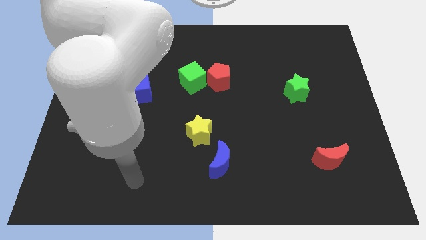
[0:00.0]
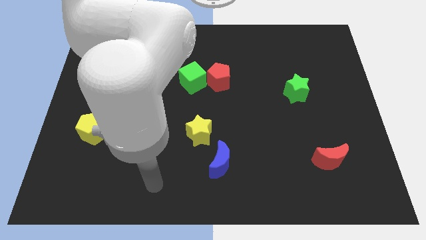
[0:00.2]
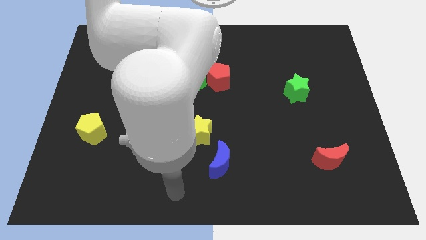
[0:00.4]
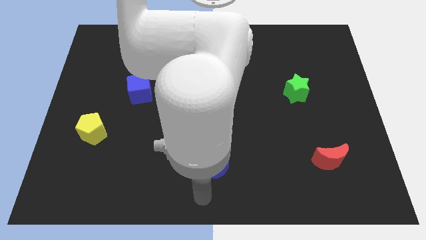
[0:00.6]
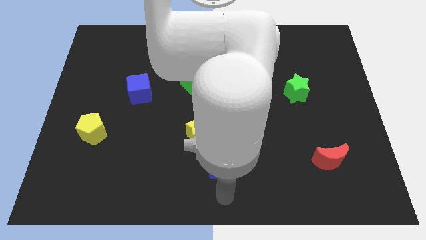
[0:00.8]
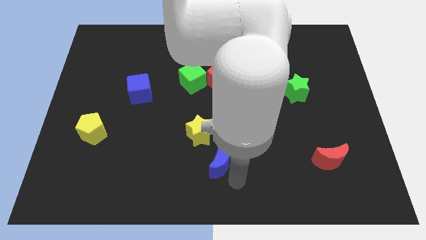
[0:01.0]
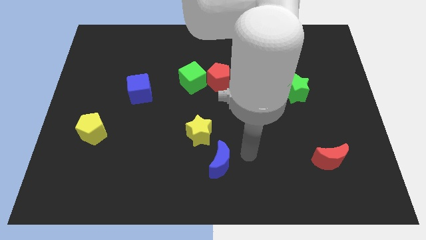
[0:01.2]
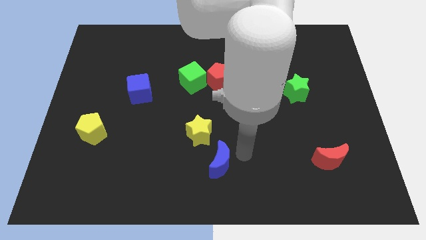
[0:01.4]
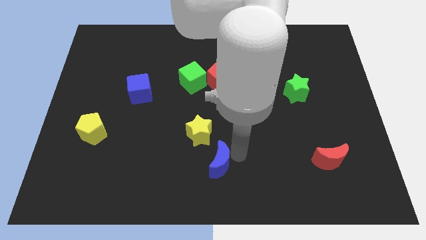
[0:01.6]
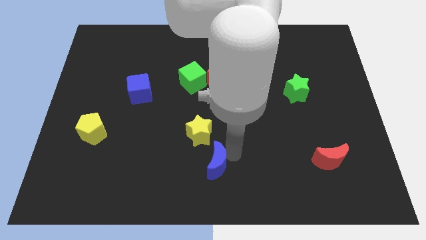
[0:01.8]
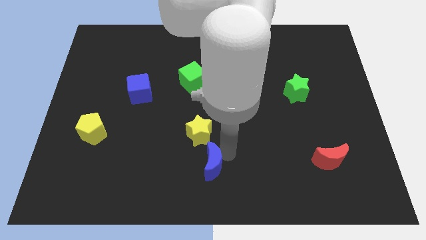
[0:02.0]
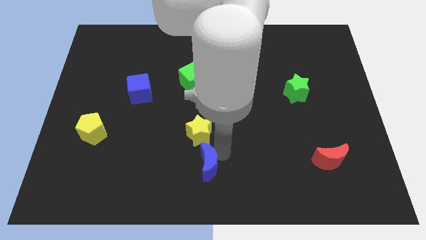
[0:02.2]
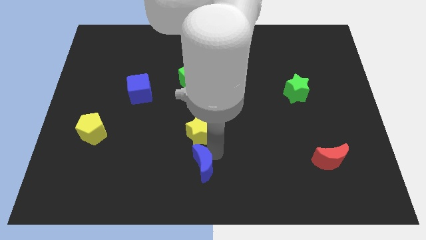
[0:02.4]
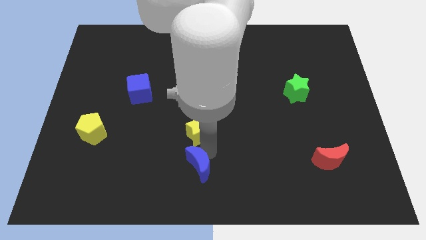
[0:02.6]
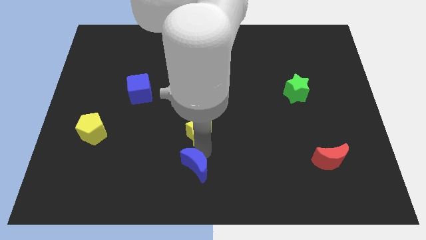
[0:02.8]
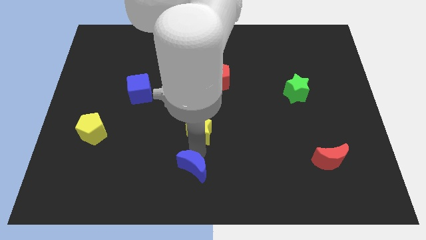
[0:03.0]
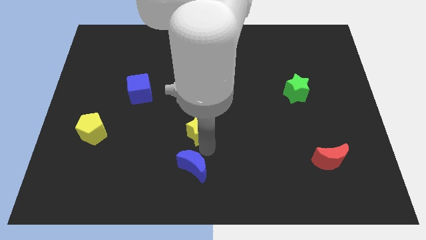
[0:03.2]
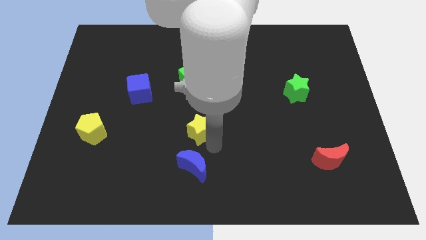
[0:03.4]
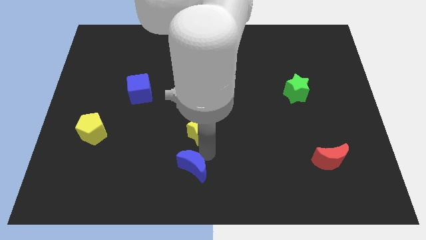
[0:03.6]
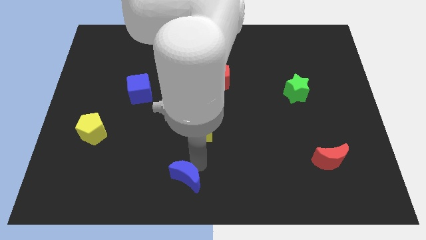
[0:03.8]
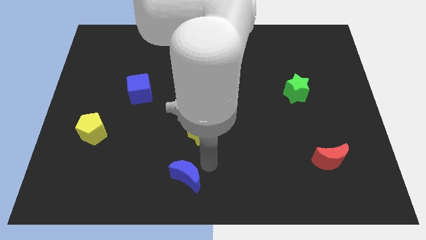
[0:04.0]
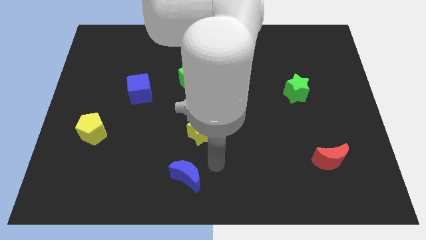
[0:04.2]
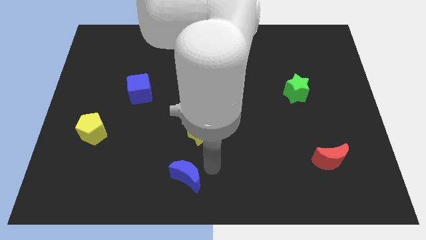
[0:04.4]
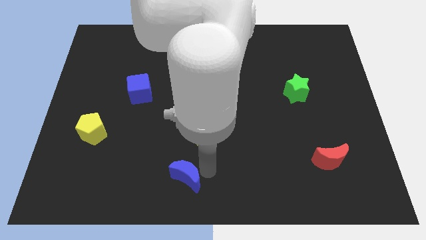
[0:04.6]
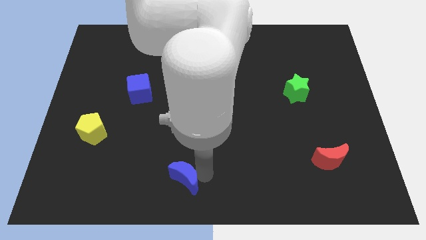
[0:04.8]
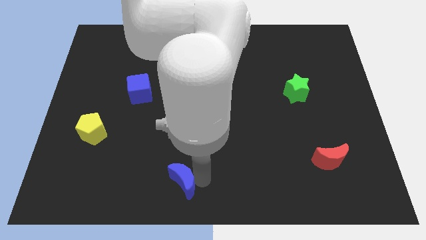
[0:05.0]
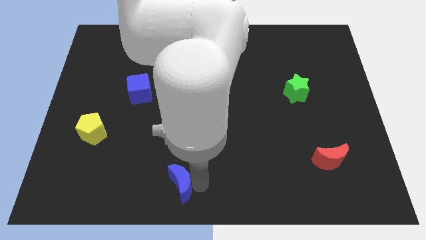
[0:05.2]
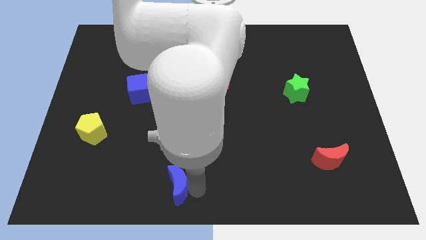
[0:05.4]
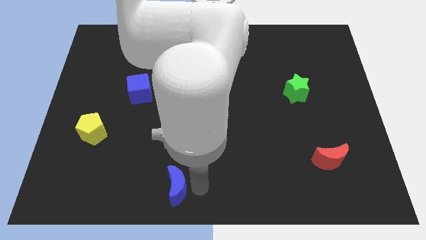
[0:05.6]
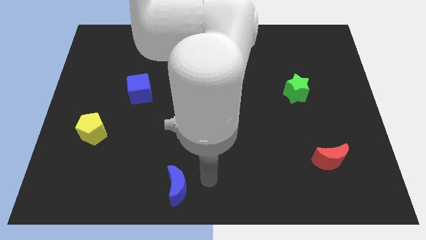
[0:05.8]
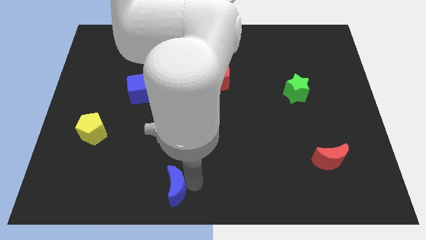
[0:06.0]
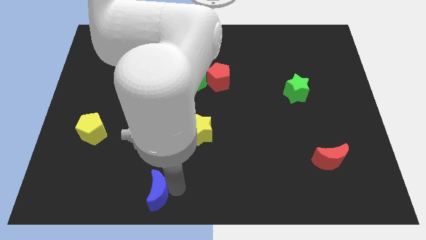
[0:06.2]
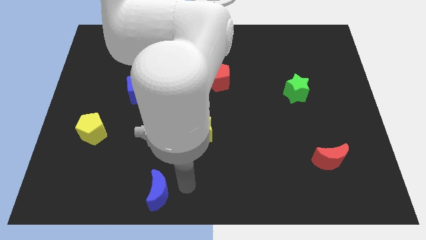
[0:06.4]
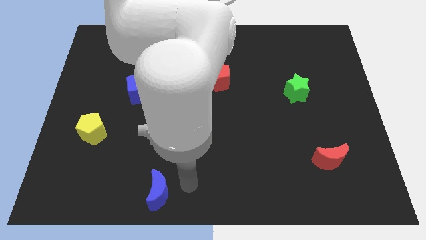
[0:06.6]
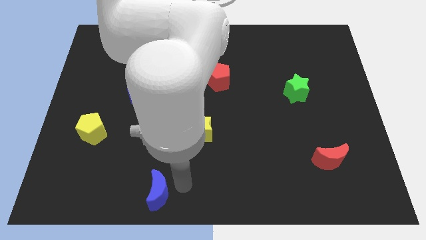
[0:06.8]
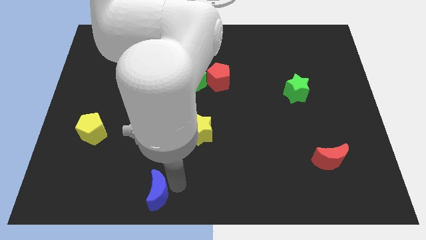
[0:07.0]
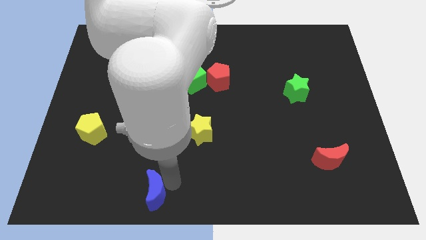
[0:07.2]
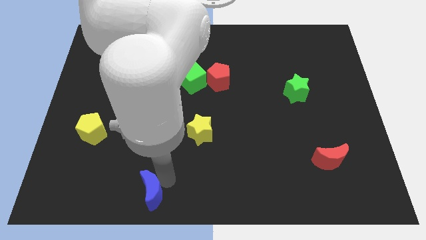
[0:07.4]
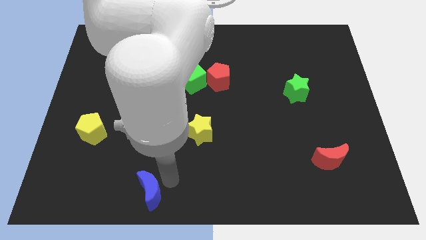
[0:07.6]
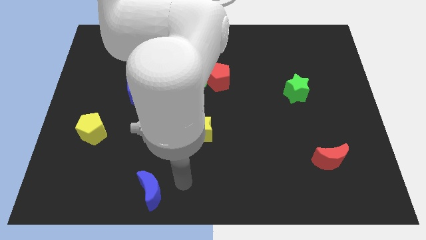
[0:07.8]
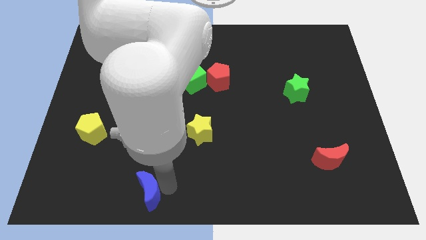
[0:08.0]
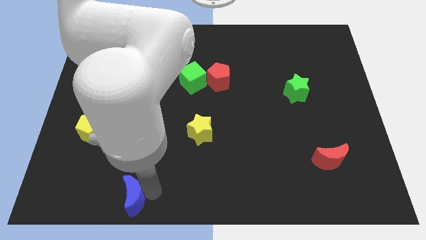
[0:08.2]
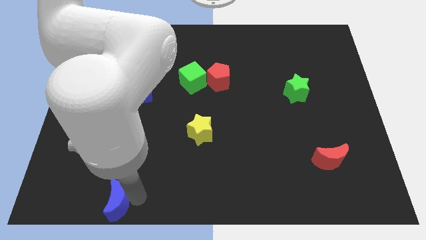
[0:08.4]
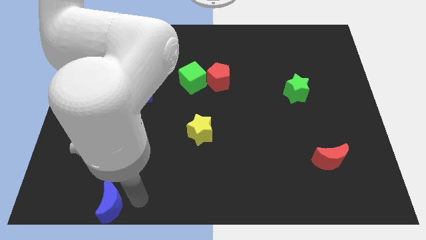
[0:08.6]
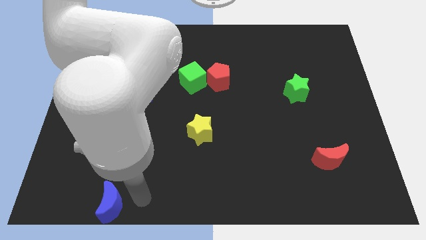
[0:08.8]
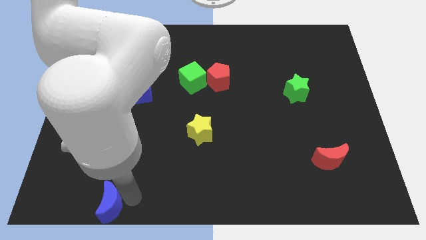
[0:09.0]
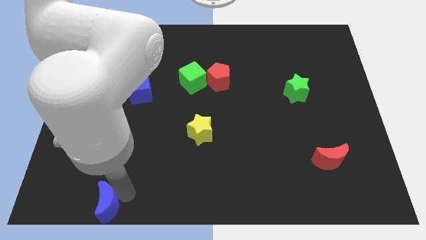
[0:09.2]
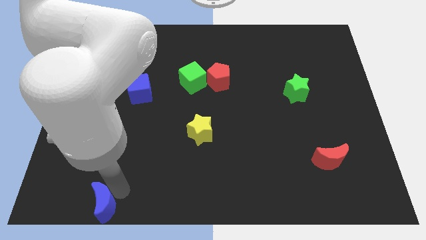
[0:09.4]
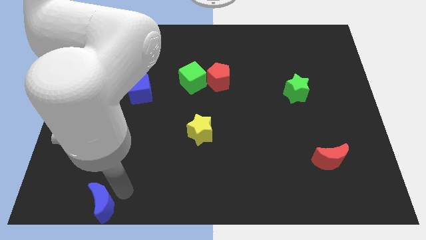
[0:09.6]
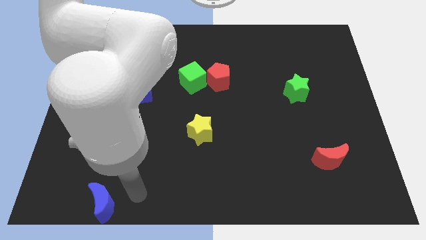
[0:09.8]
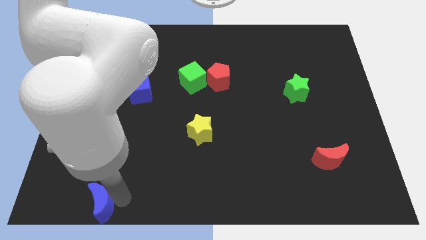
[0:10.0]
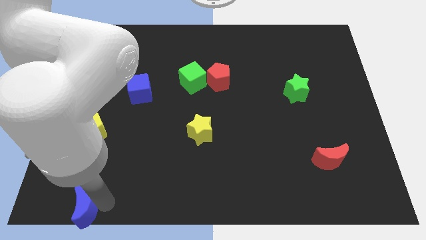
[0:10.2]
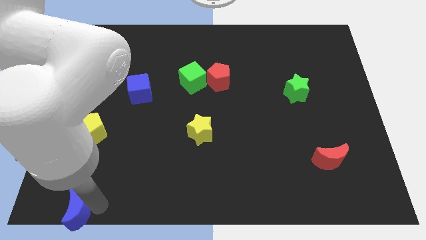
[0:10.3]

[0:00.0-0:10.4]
move the blue moon to the bottom left

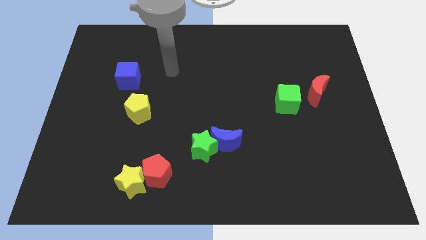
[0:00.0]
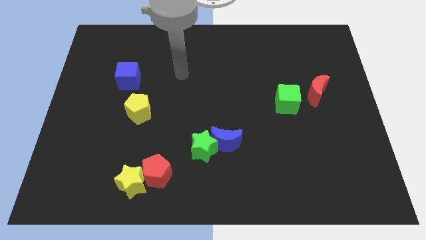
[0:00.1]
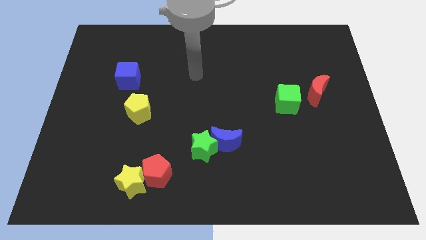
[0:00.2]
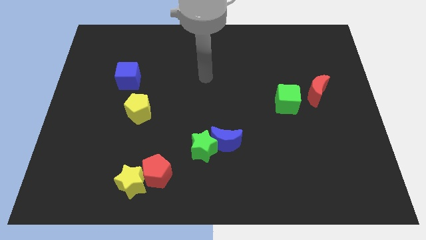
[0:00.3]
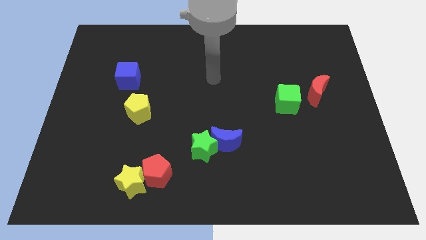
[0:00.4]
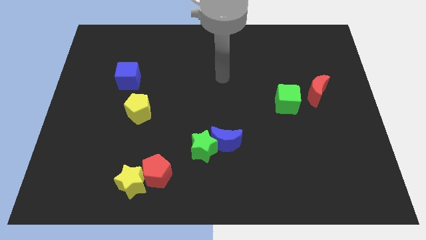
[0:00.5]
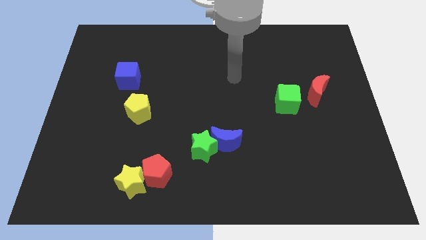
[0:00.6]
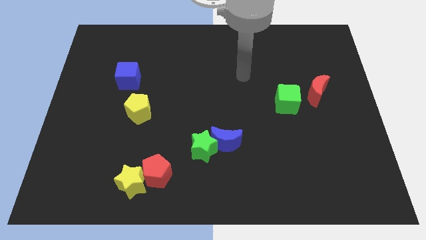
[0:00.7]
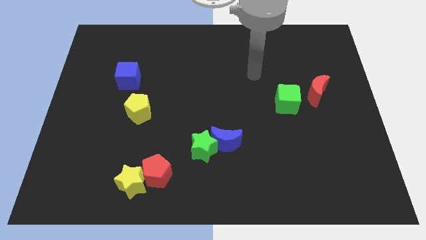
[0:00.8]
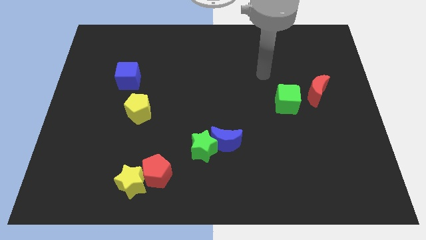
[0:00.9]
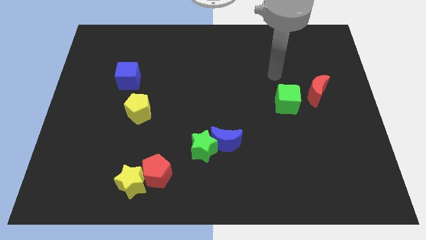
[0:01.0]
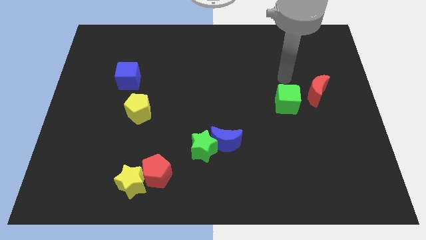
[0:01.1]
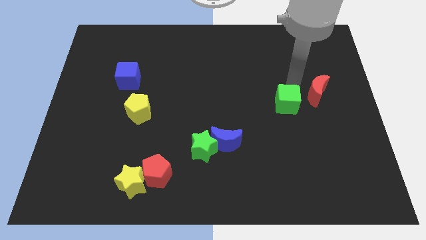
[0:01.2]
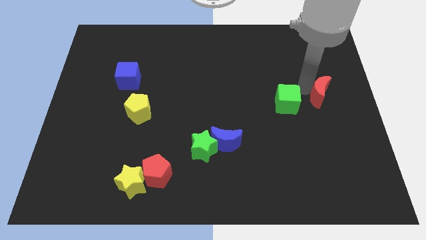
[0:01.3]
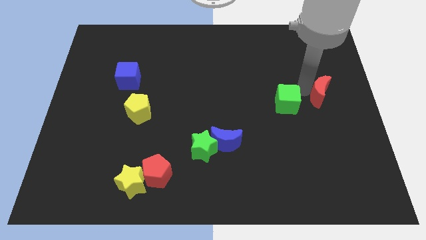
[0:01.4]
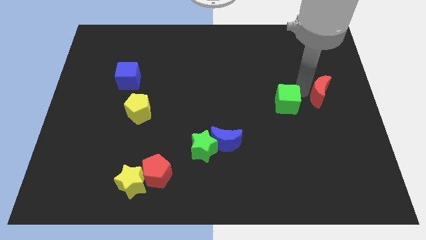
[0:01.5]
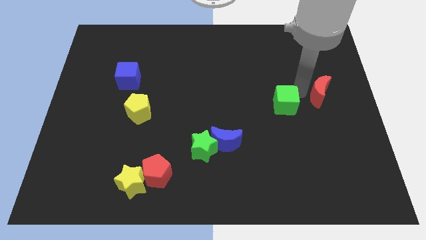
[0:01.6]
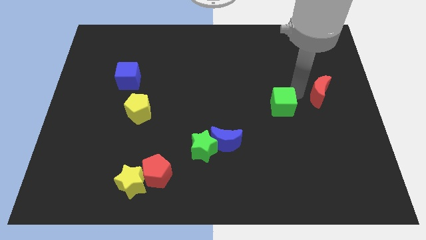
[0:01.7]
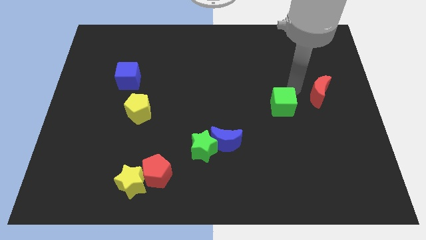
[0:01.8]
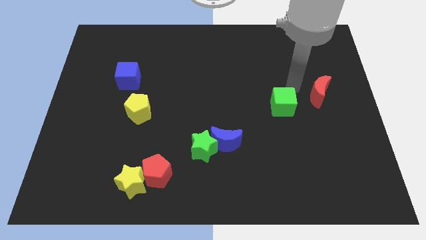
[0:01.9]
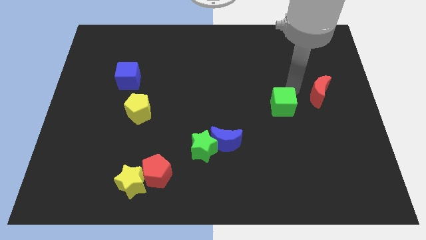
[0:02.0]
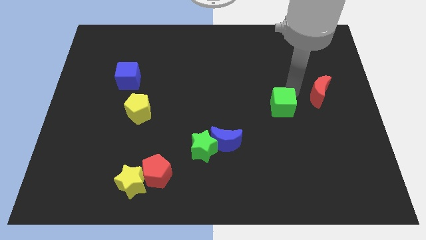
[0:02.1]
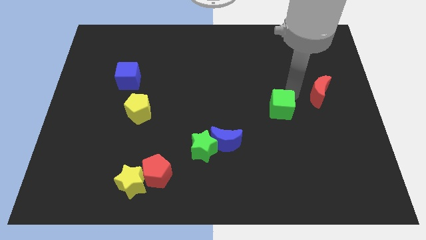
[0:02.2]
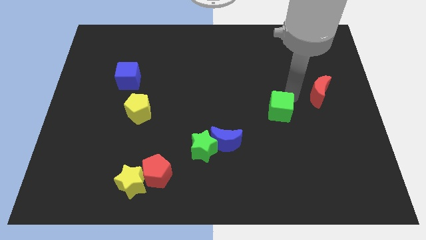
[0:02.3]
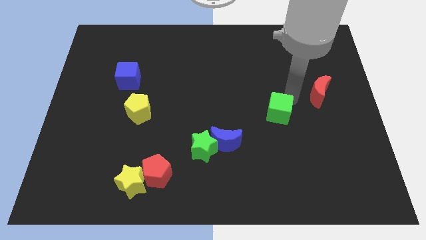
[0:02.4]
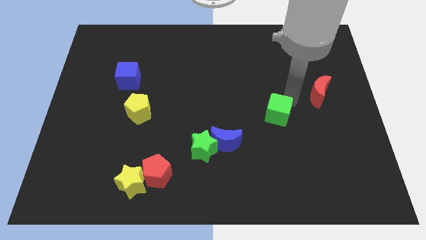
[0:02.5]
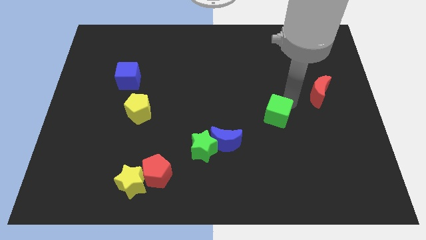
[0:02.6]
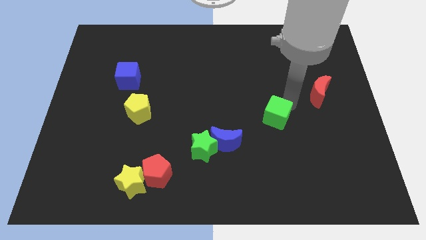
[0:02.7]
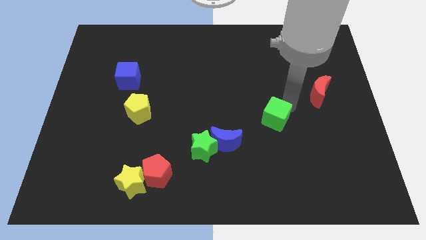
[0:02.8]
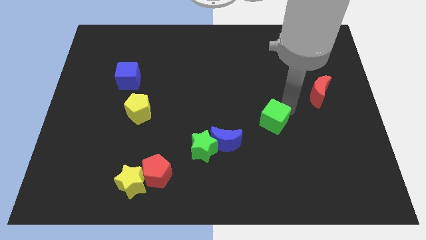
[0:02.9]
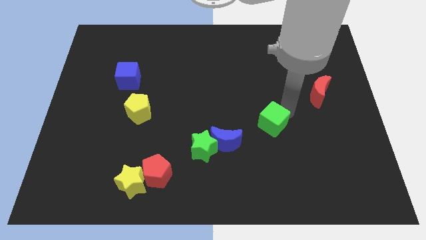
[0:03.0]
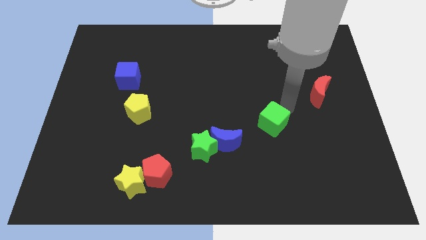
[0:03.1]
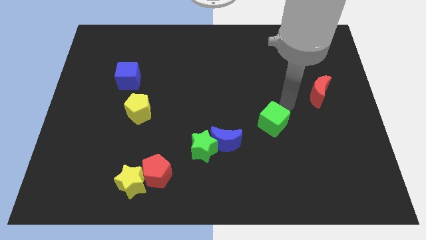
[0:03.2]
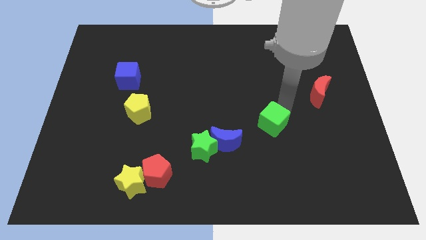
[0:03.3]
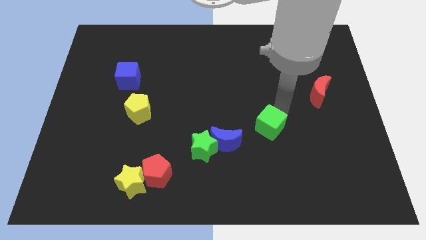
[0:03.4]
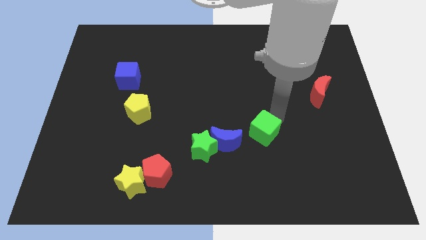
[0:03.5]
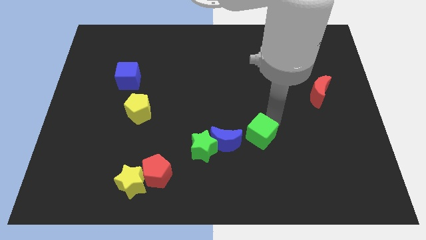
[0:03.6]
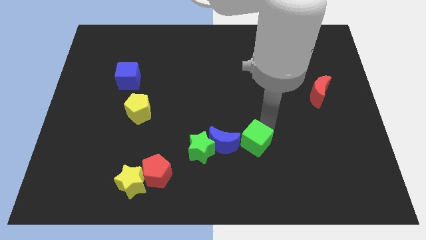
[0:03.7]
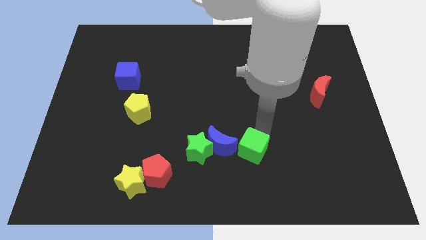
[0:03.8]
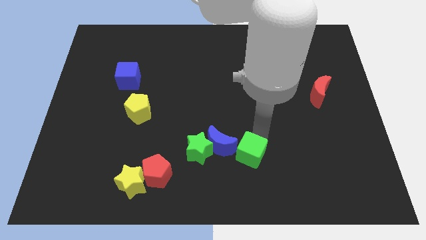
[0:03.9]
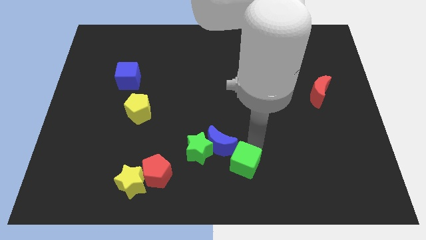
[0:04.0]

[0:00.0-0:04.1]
push the green cube to the bottom side
